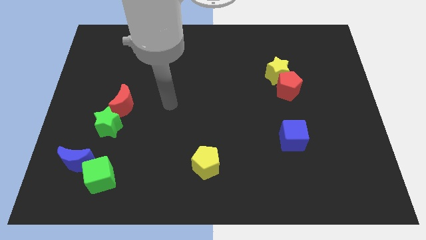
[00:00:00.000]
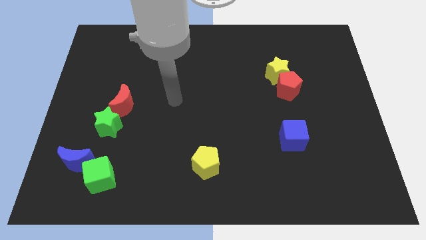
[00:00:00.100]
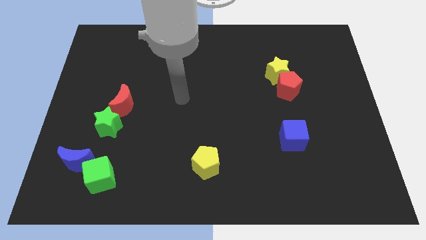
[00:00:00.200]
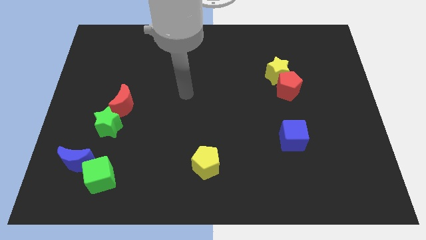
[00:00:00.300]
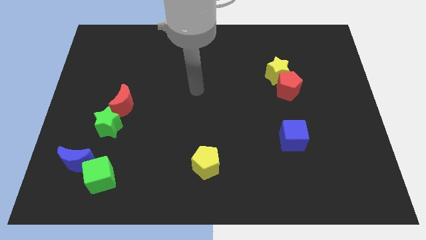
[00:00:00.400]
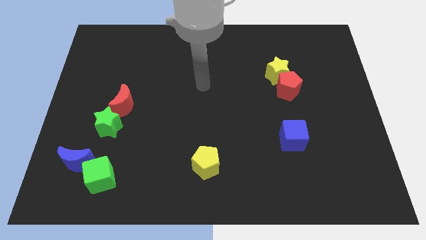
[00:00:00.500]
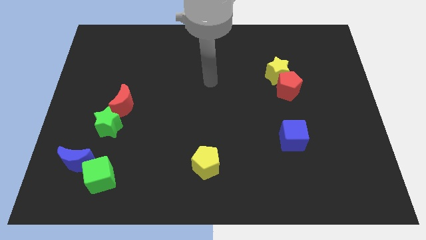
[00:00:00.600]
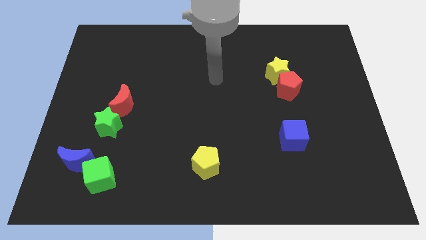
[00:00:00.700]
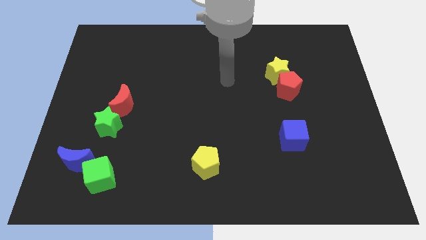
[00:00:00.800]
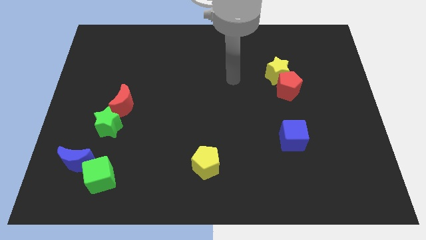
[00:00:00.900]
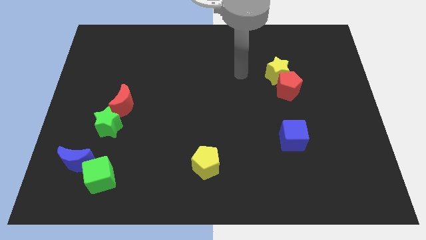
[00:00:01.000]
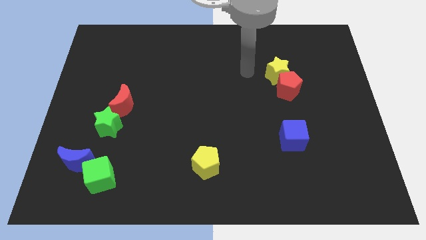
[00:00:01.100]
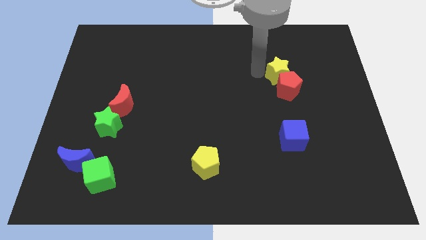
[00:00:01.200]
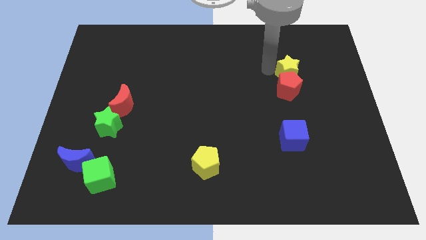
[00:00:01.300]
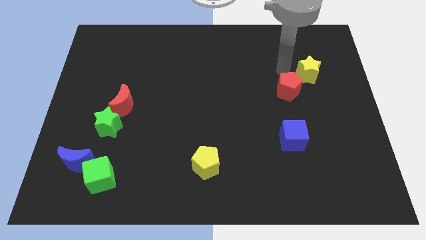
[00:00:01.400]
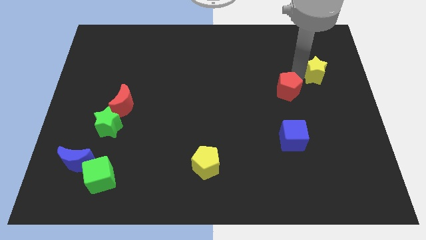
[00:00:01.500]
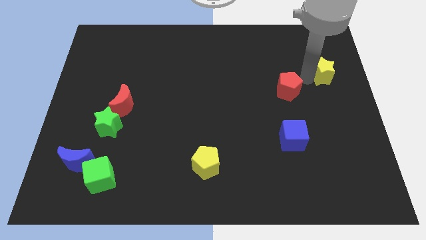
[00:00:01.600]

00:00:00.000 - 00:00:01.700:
pull the red pentagon apart from the yellow star

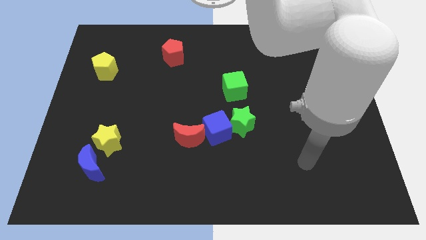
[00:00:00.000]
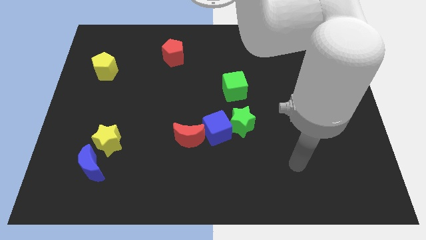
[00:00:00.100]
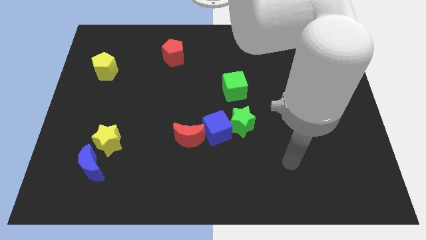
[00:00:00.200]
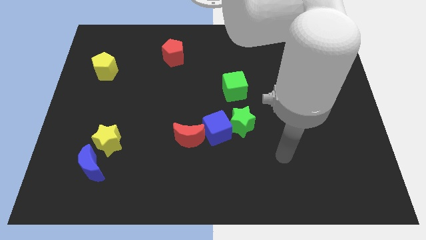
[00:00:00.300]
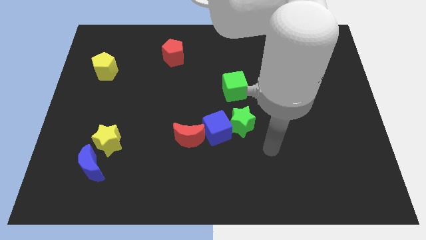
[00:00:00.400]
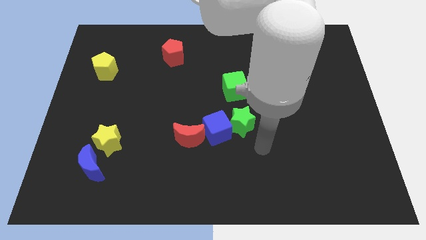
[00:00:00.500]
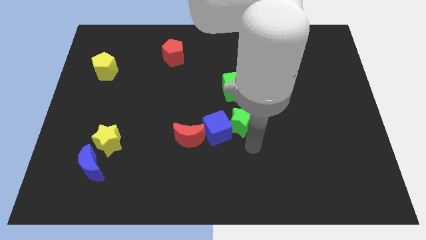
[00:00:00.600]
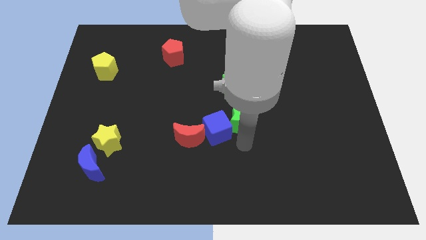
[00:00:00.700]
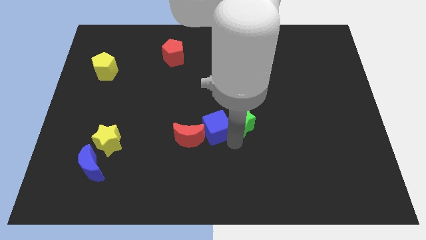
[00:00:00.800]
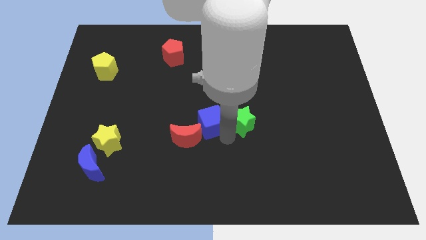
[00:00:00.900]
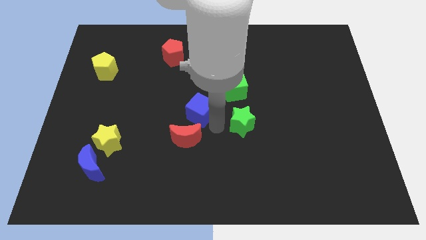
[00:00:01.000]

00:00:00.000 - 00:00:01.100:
move the green star away from the blue cube

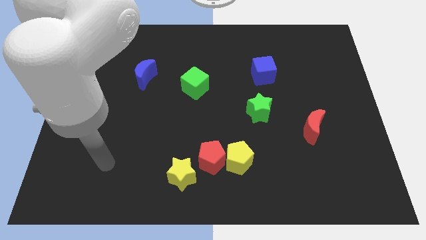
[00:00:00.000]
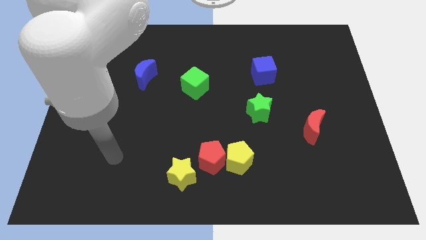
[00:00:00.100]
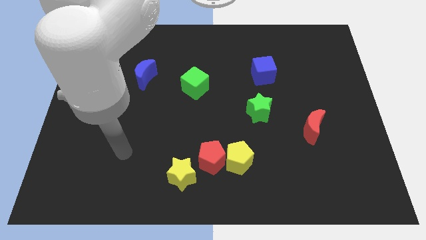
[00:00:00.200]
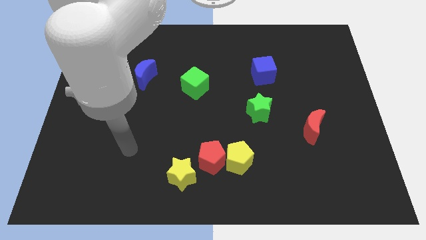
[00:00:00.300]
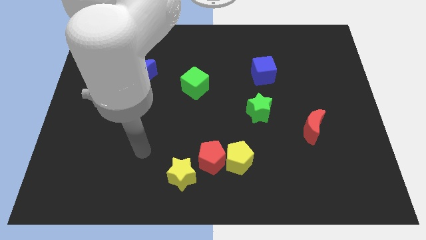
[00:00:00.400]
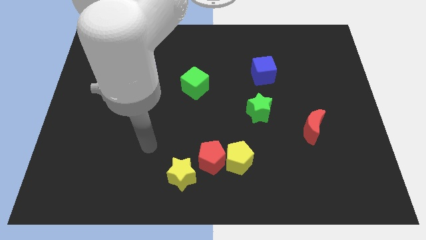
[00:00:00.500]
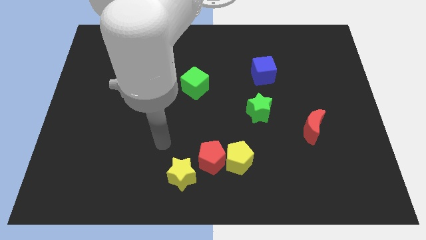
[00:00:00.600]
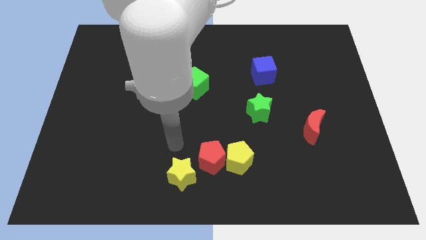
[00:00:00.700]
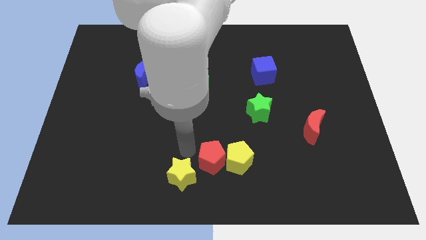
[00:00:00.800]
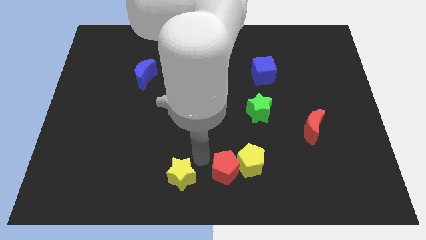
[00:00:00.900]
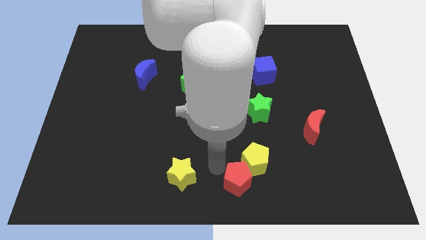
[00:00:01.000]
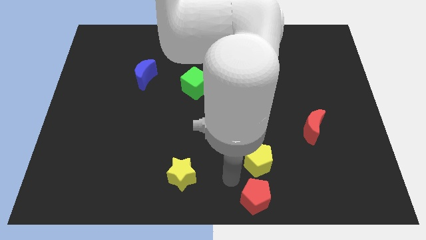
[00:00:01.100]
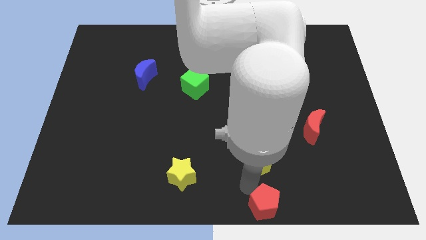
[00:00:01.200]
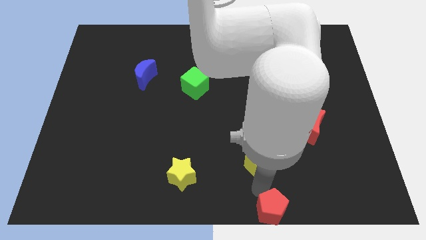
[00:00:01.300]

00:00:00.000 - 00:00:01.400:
pull the yellow pentagon apart from the red pentagon

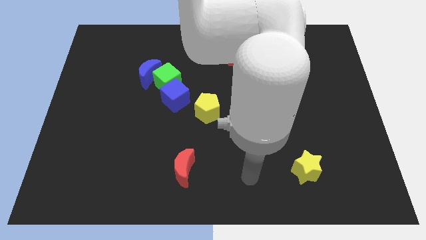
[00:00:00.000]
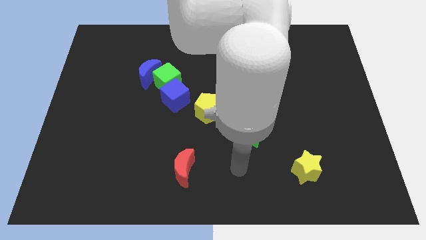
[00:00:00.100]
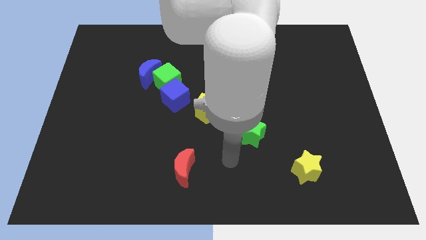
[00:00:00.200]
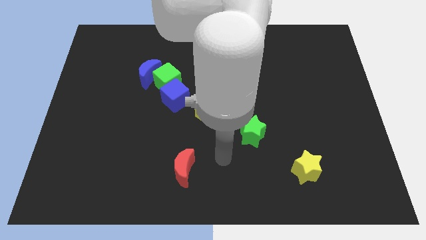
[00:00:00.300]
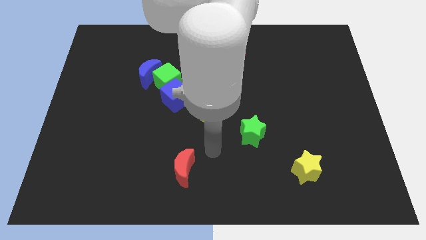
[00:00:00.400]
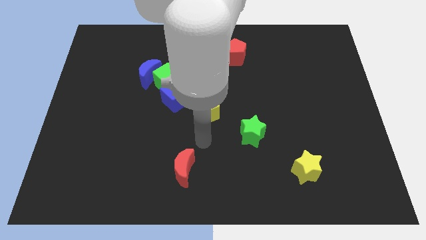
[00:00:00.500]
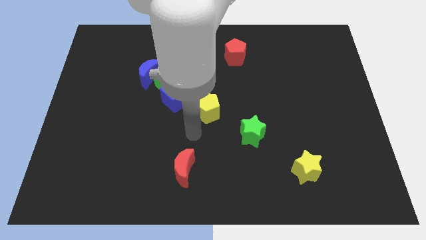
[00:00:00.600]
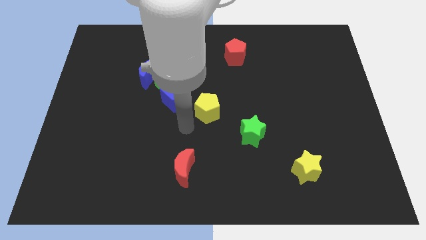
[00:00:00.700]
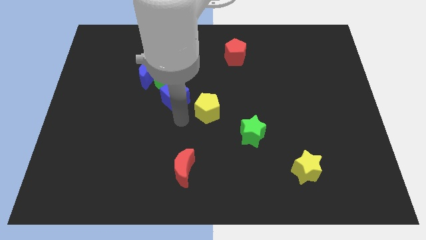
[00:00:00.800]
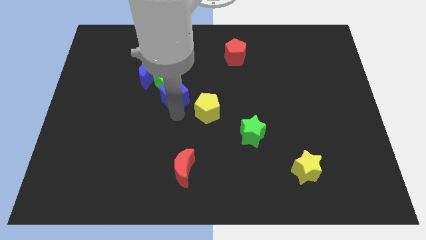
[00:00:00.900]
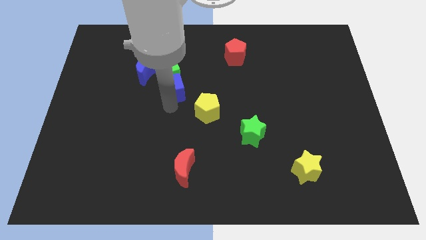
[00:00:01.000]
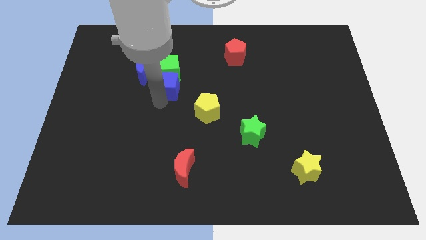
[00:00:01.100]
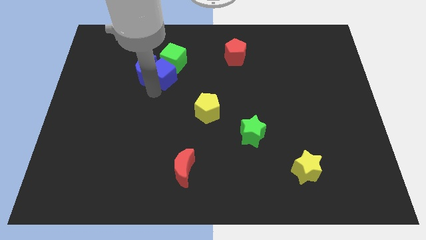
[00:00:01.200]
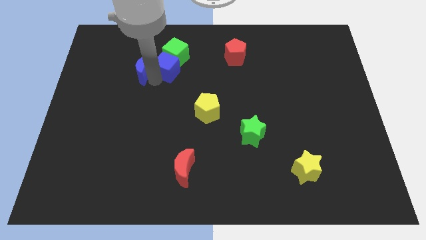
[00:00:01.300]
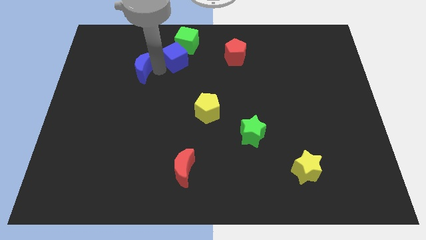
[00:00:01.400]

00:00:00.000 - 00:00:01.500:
separate the green cube from the blue moon and blue cube

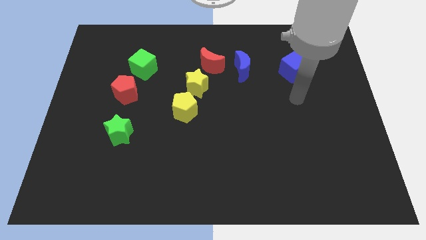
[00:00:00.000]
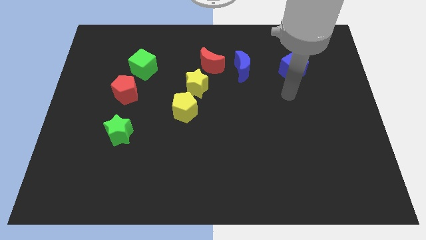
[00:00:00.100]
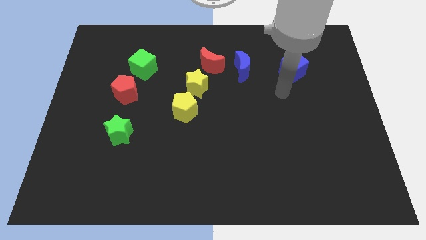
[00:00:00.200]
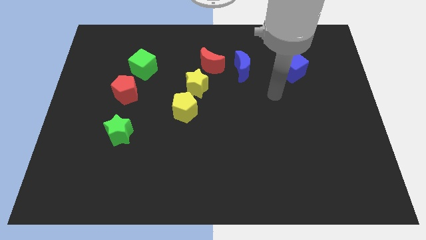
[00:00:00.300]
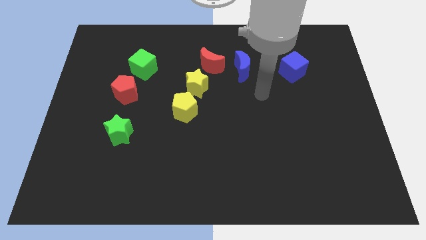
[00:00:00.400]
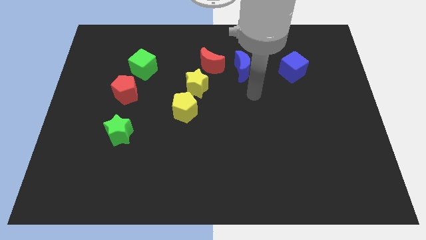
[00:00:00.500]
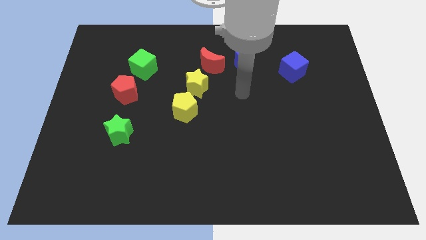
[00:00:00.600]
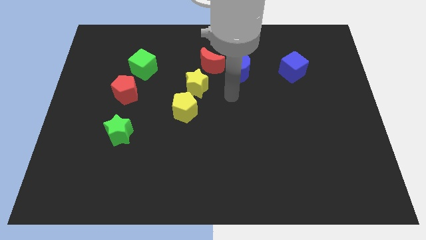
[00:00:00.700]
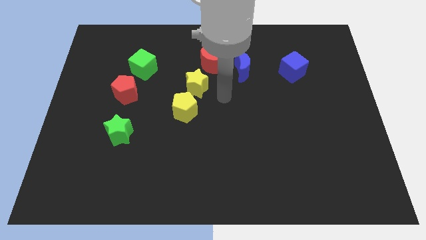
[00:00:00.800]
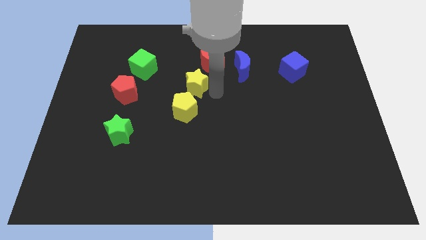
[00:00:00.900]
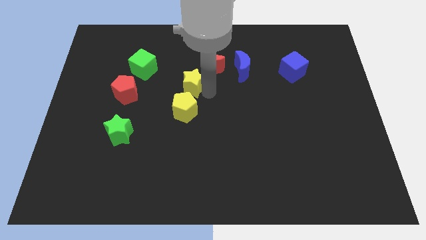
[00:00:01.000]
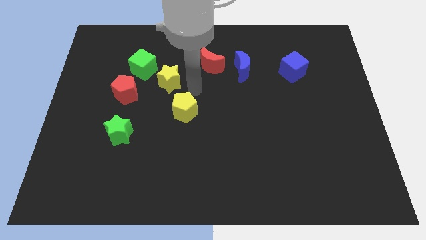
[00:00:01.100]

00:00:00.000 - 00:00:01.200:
separate the yellow pentagon from the yellow star

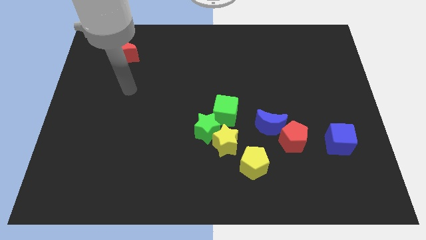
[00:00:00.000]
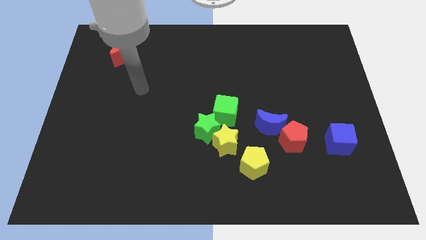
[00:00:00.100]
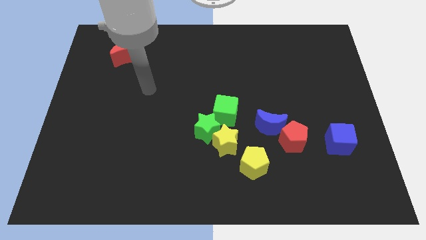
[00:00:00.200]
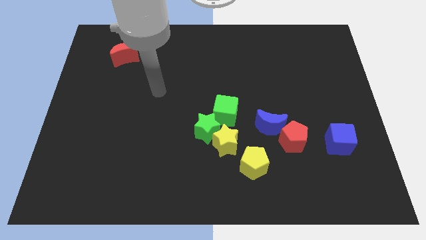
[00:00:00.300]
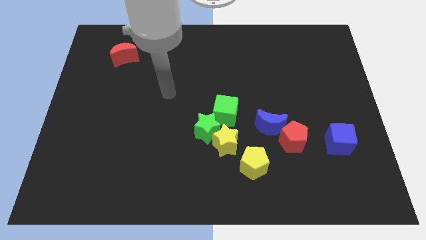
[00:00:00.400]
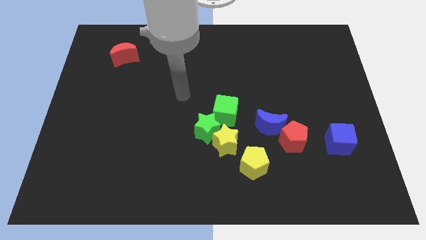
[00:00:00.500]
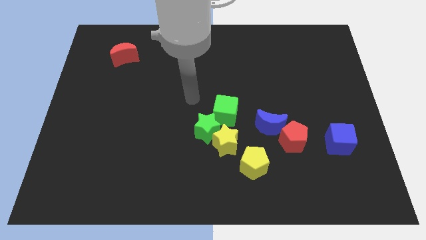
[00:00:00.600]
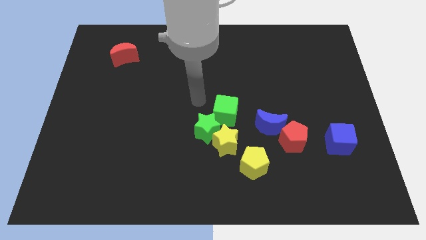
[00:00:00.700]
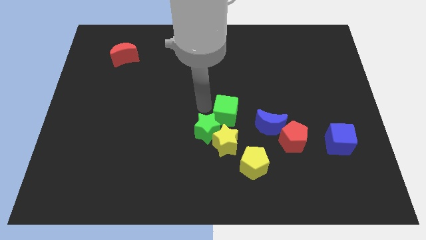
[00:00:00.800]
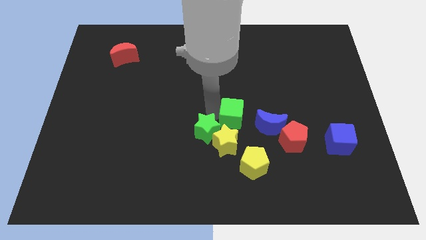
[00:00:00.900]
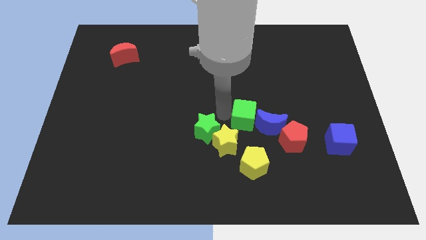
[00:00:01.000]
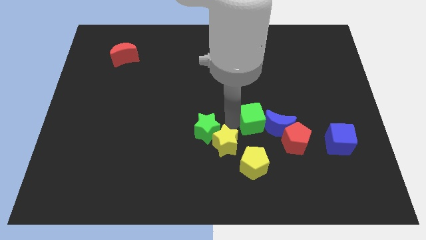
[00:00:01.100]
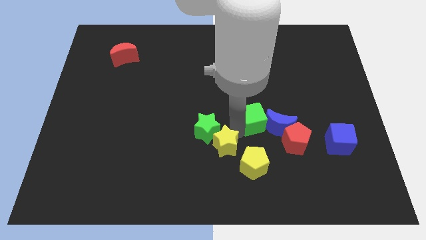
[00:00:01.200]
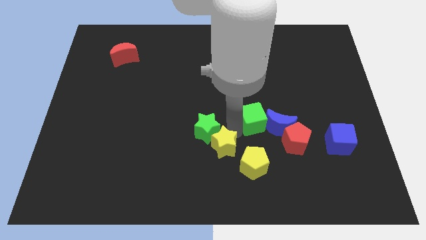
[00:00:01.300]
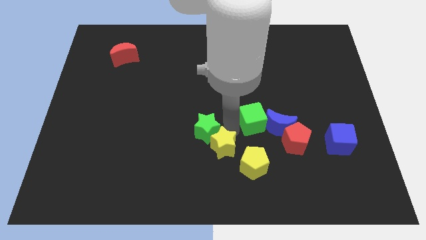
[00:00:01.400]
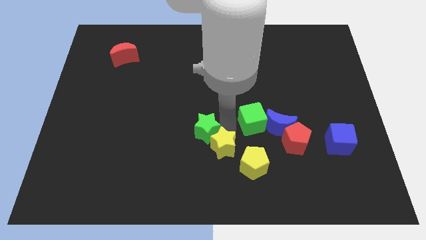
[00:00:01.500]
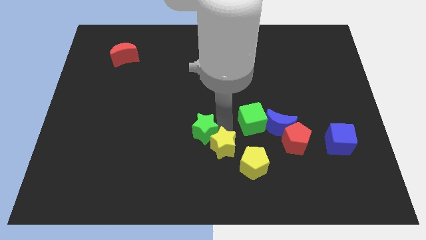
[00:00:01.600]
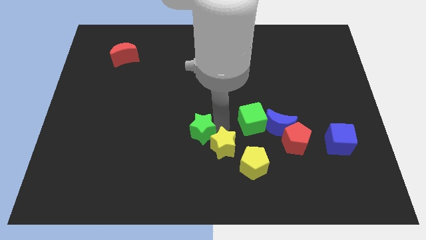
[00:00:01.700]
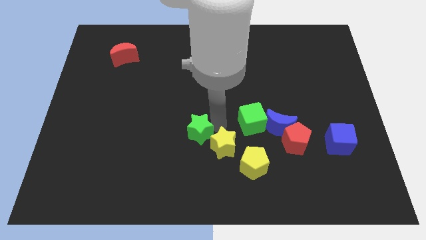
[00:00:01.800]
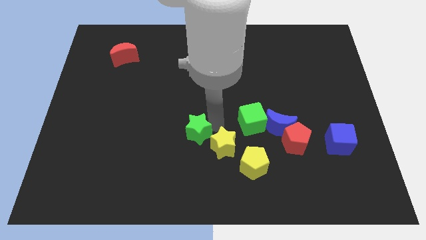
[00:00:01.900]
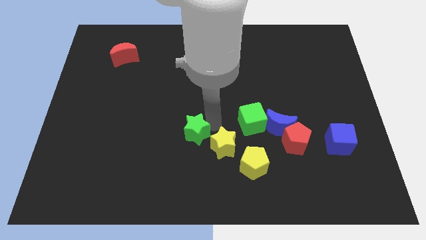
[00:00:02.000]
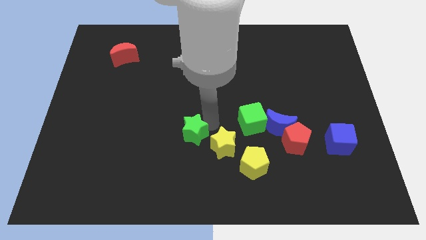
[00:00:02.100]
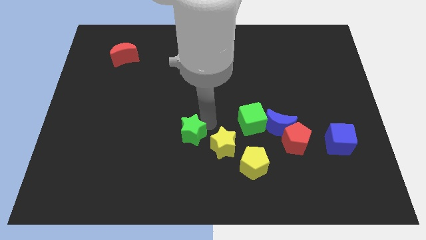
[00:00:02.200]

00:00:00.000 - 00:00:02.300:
separate the green star from the yellow star and green cube

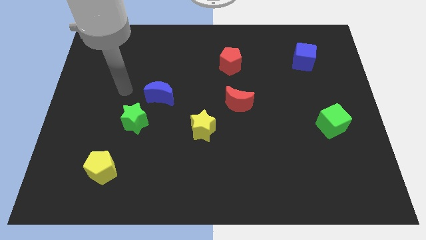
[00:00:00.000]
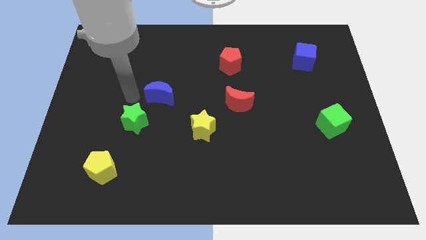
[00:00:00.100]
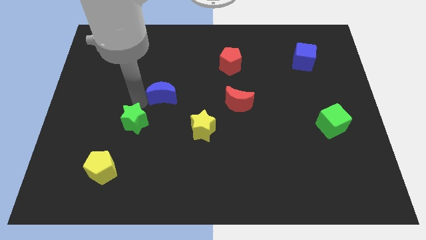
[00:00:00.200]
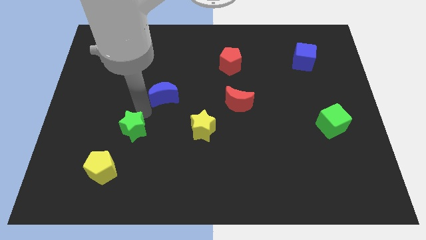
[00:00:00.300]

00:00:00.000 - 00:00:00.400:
separate the blue moon from the green star
